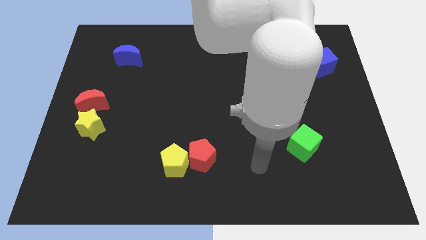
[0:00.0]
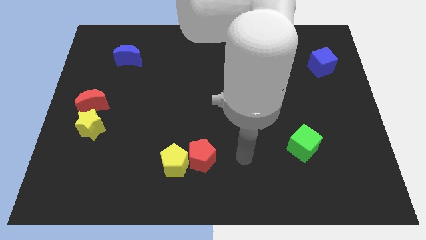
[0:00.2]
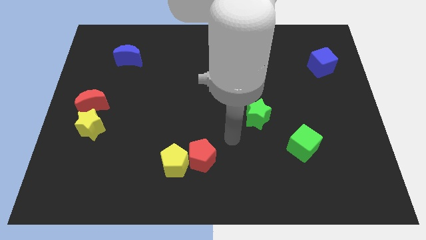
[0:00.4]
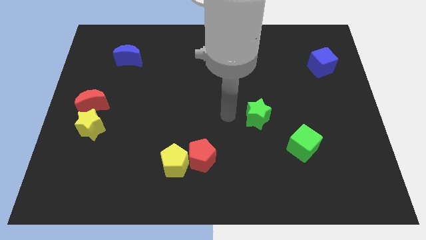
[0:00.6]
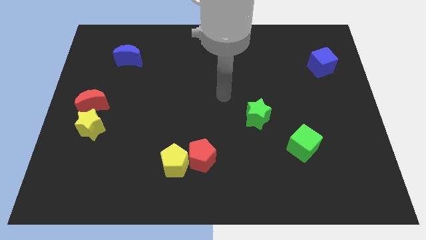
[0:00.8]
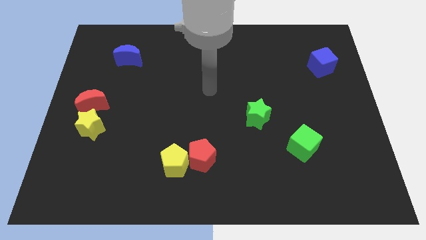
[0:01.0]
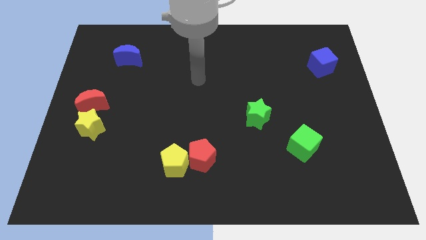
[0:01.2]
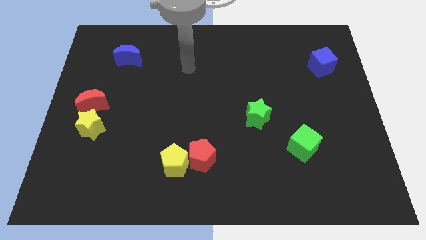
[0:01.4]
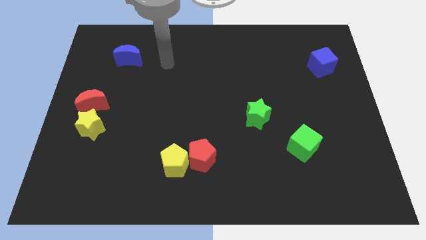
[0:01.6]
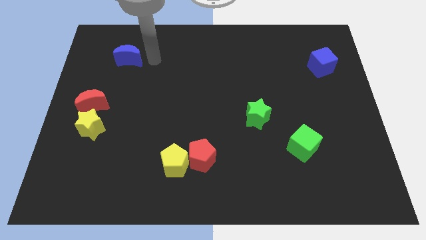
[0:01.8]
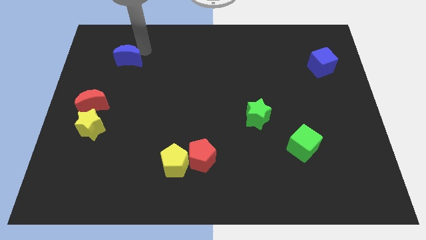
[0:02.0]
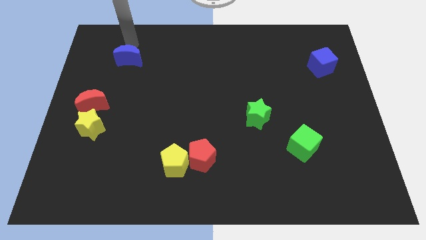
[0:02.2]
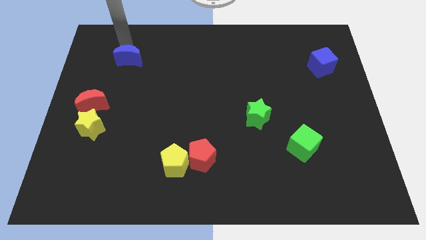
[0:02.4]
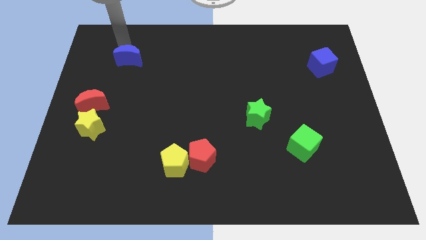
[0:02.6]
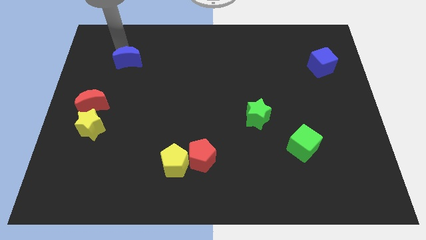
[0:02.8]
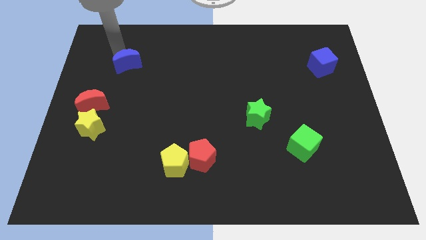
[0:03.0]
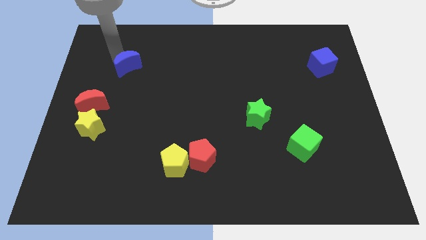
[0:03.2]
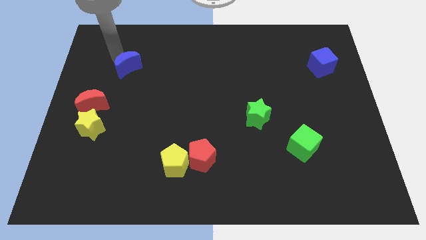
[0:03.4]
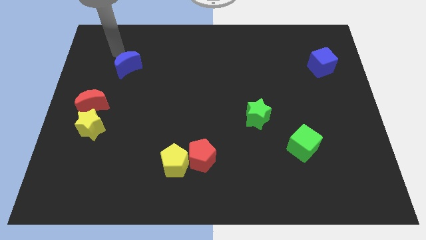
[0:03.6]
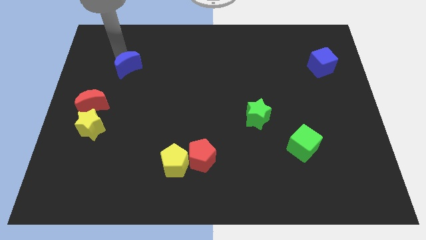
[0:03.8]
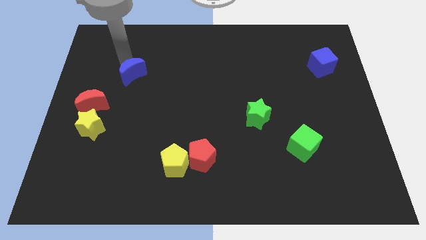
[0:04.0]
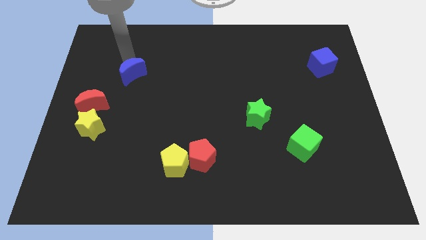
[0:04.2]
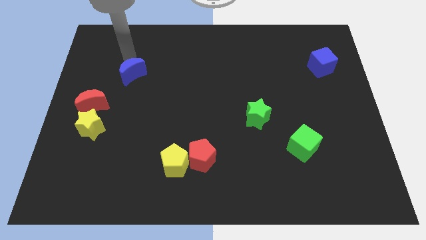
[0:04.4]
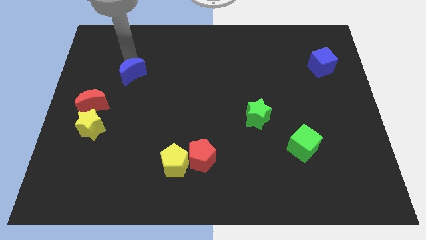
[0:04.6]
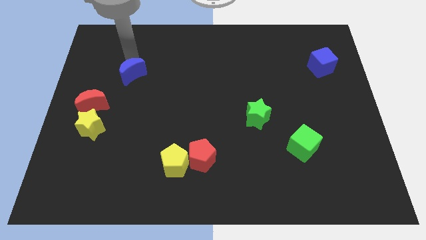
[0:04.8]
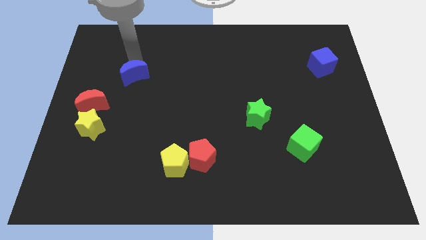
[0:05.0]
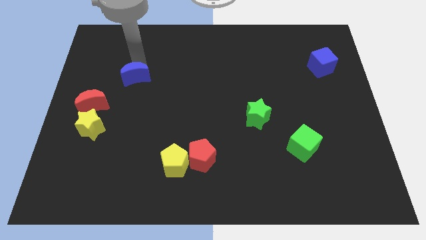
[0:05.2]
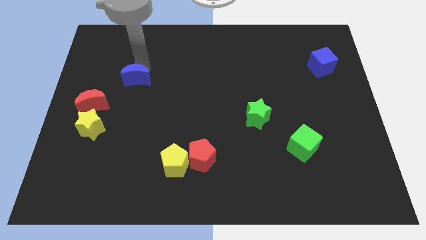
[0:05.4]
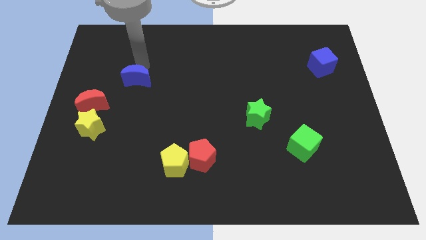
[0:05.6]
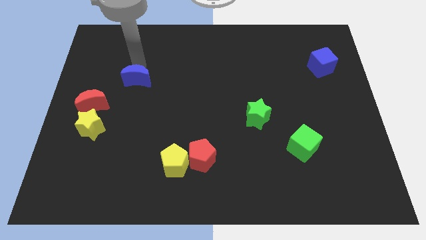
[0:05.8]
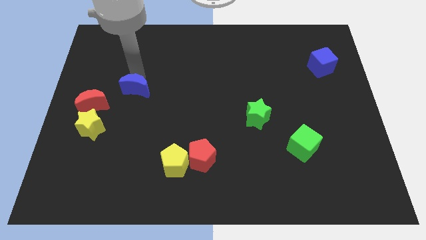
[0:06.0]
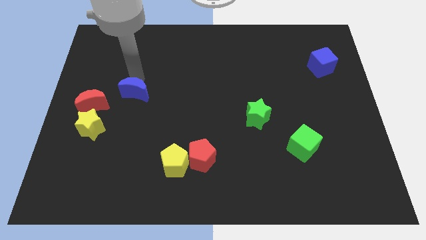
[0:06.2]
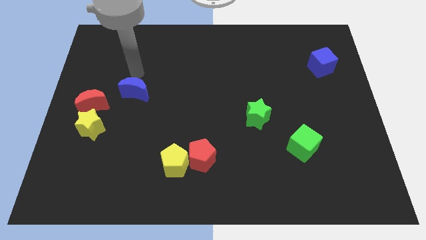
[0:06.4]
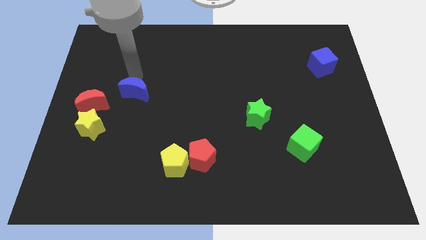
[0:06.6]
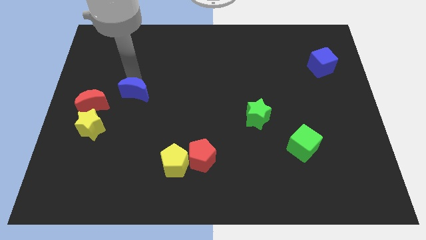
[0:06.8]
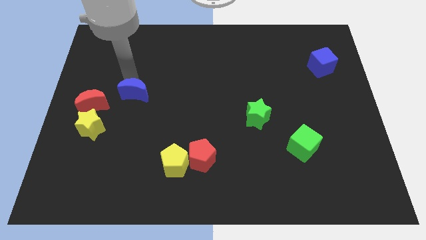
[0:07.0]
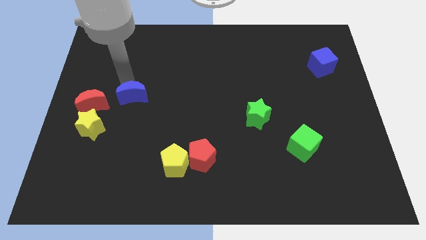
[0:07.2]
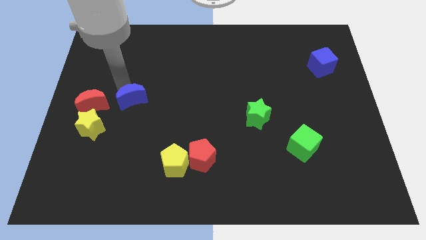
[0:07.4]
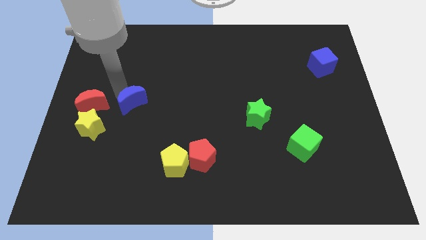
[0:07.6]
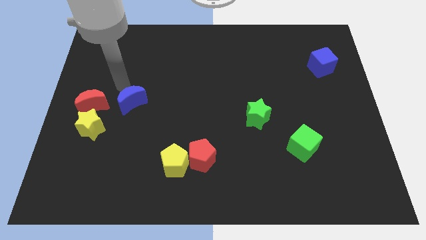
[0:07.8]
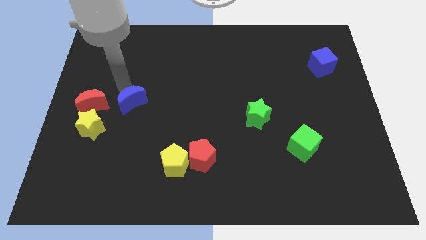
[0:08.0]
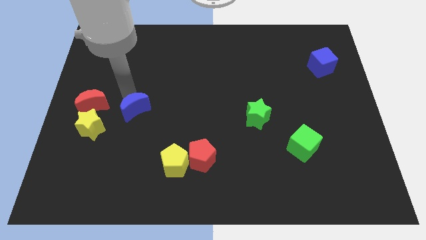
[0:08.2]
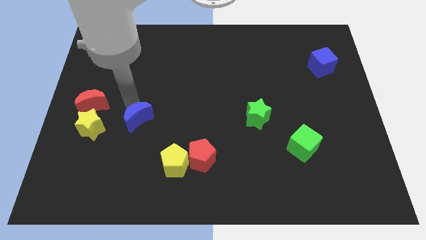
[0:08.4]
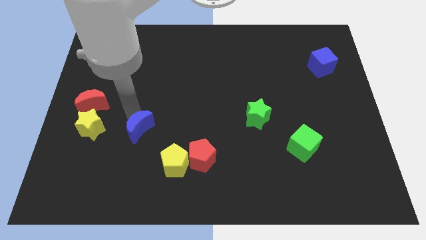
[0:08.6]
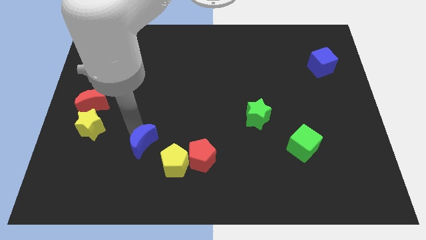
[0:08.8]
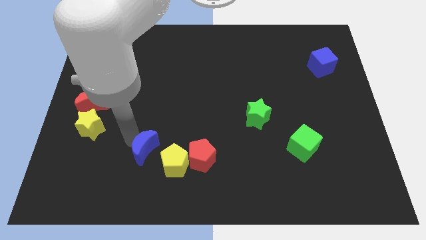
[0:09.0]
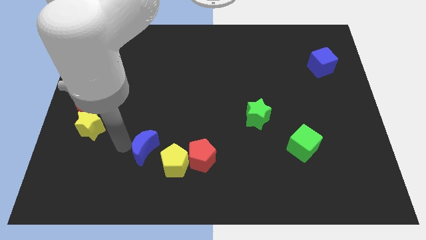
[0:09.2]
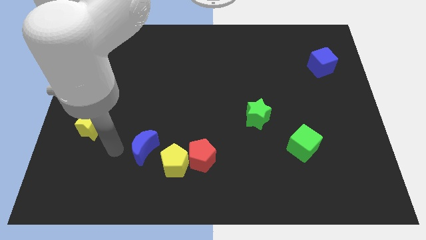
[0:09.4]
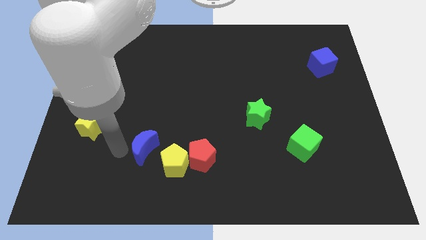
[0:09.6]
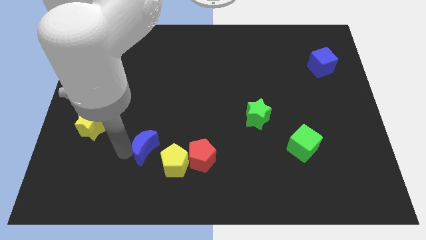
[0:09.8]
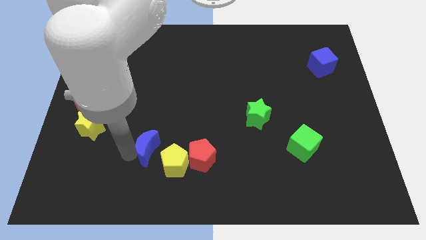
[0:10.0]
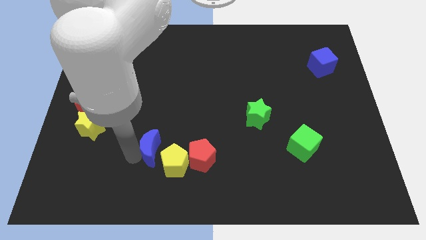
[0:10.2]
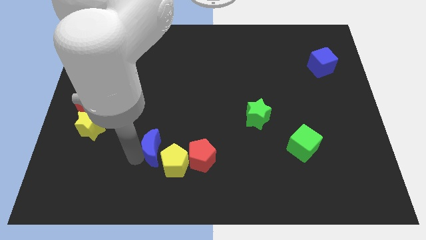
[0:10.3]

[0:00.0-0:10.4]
slide the blue moon close to the yellow pentagon

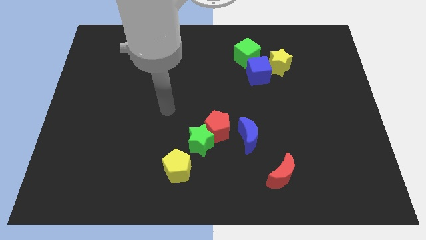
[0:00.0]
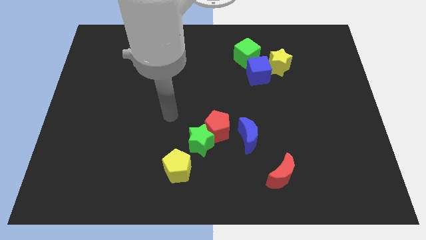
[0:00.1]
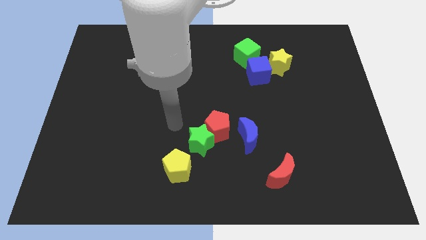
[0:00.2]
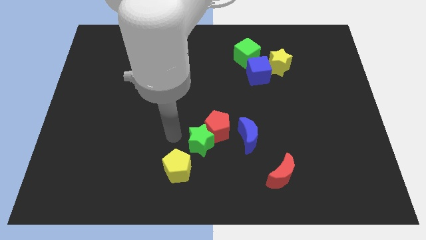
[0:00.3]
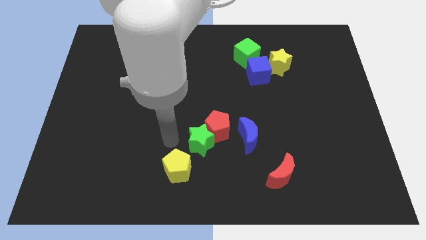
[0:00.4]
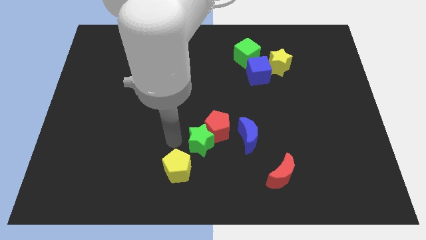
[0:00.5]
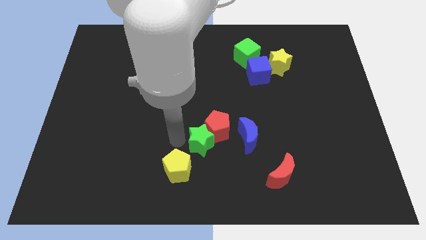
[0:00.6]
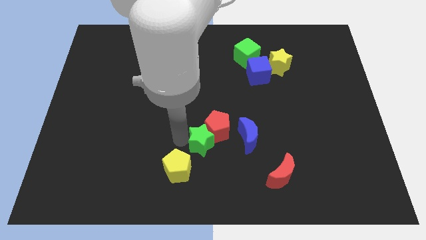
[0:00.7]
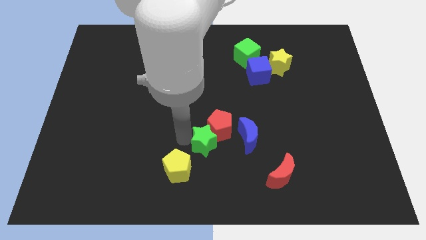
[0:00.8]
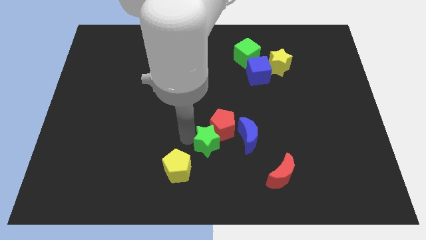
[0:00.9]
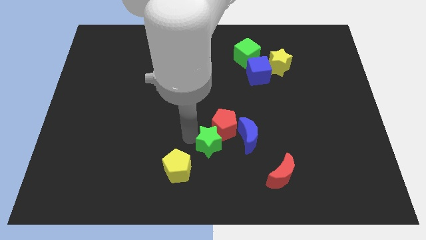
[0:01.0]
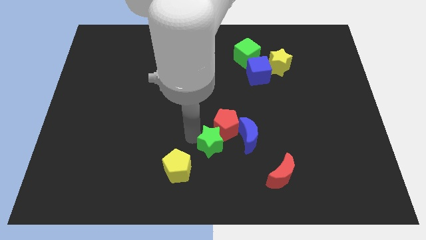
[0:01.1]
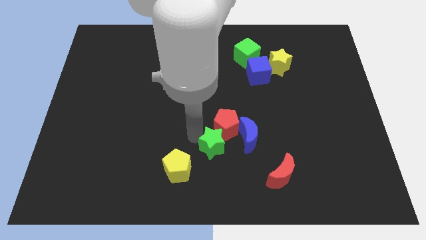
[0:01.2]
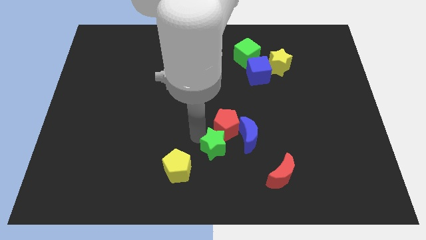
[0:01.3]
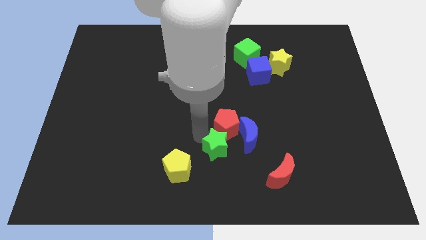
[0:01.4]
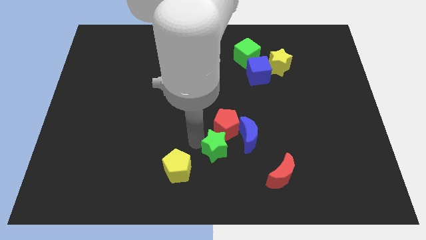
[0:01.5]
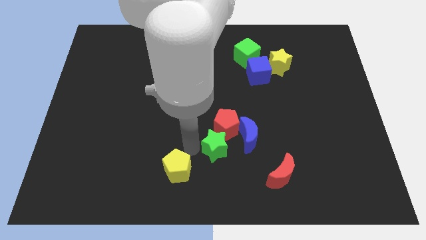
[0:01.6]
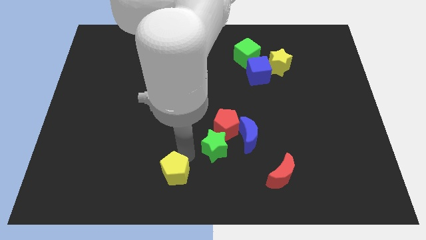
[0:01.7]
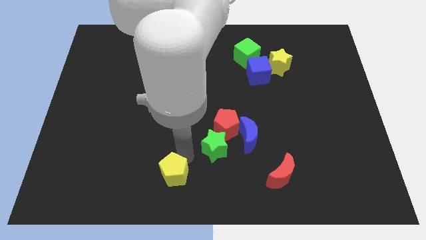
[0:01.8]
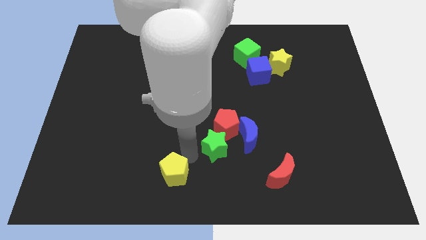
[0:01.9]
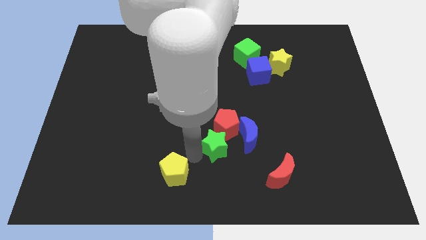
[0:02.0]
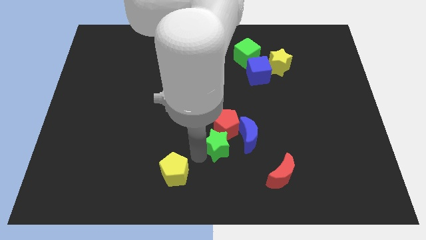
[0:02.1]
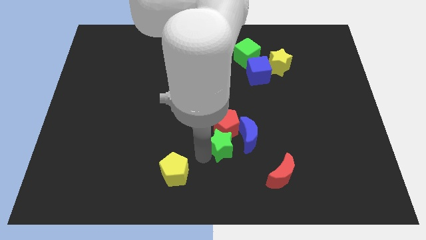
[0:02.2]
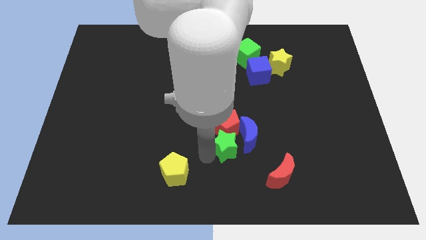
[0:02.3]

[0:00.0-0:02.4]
put the green star close to the blue moon
